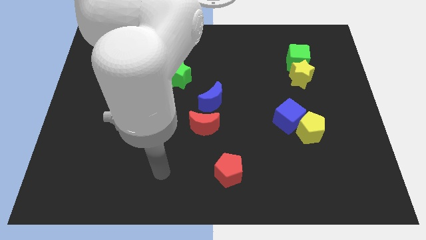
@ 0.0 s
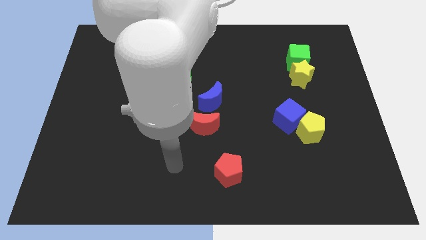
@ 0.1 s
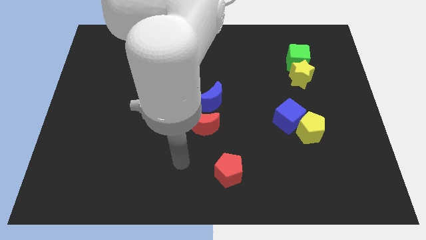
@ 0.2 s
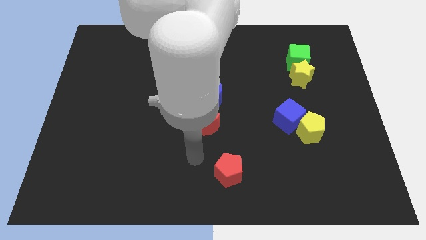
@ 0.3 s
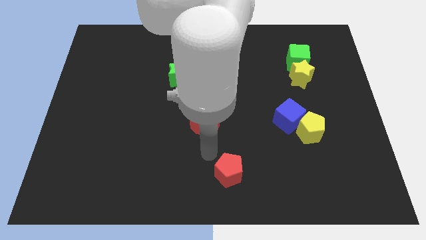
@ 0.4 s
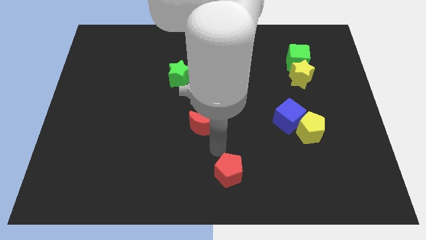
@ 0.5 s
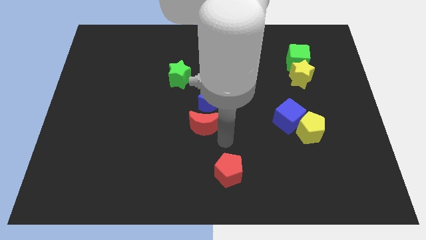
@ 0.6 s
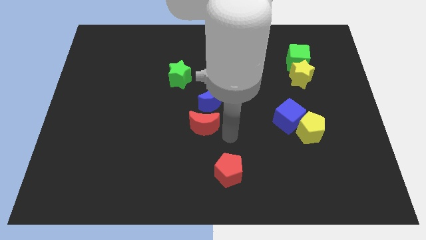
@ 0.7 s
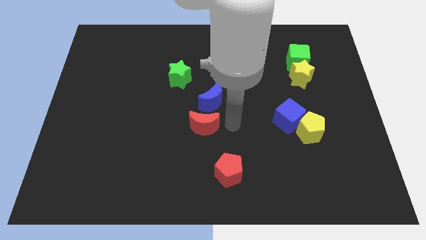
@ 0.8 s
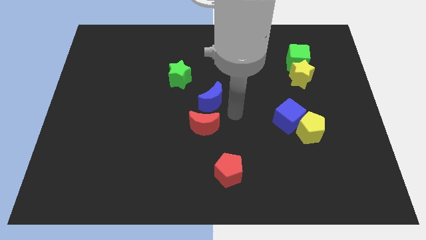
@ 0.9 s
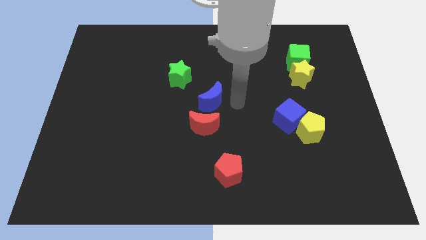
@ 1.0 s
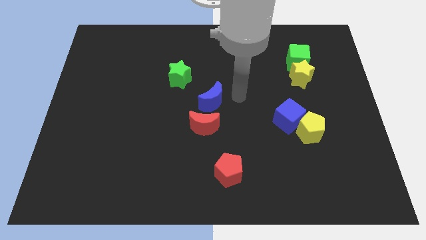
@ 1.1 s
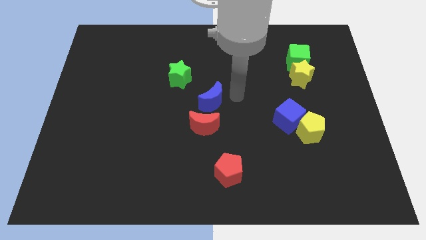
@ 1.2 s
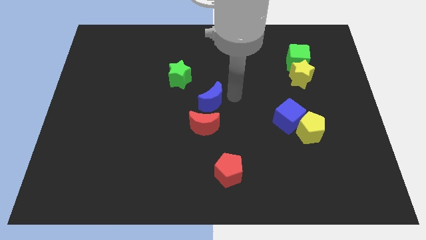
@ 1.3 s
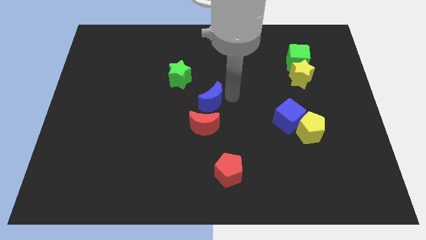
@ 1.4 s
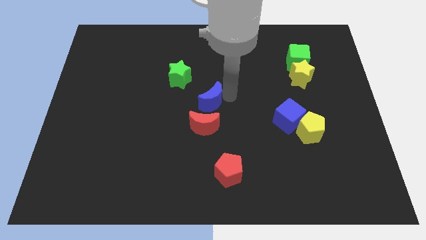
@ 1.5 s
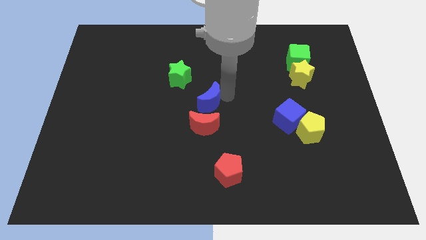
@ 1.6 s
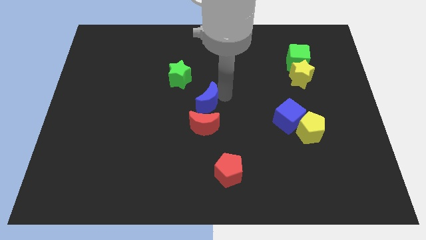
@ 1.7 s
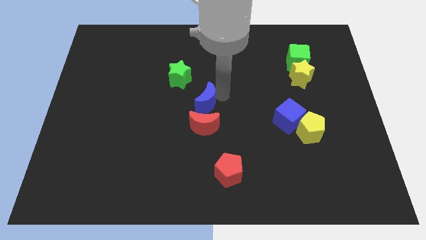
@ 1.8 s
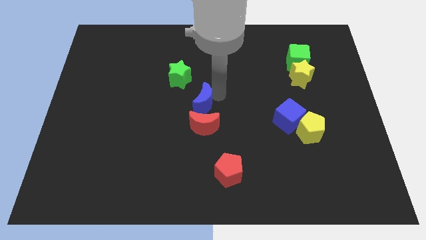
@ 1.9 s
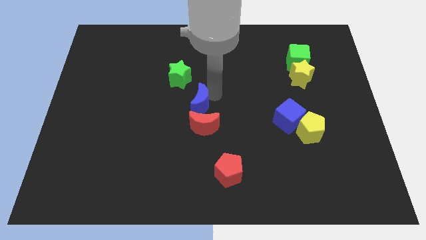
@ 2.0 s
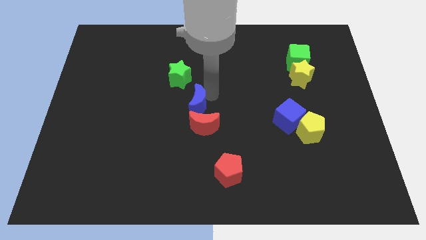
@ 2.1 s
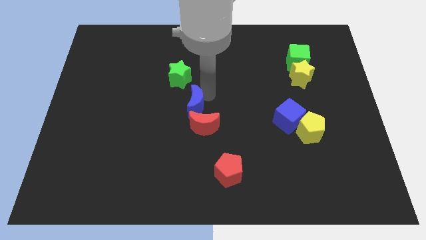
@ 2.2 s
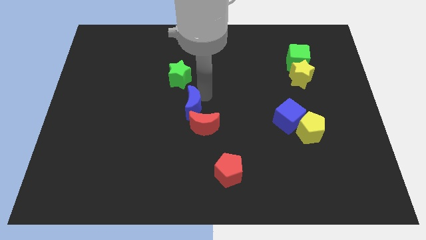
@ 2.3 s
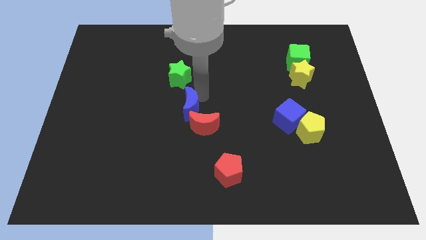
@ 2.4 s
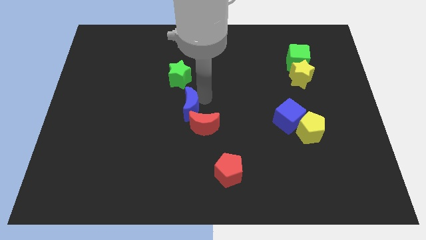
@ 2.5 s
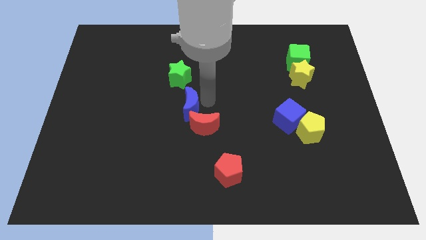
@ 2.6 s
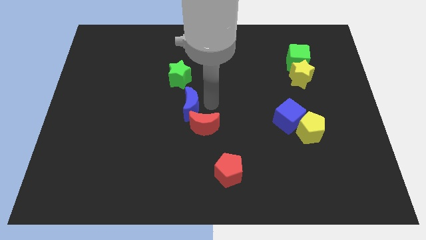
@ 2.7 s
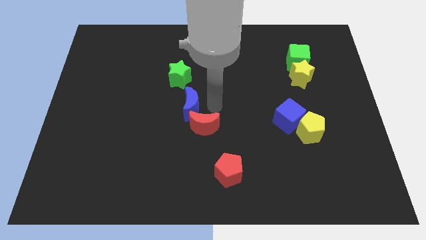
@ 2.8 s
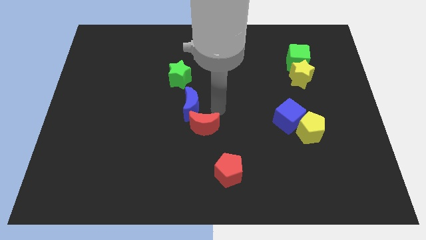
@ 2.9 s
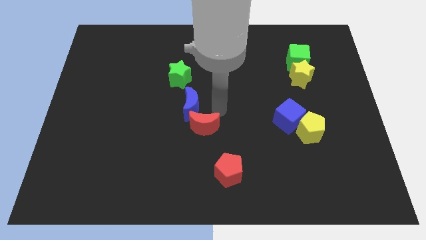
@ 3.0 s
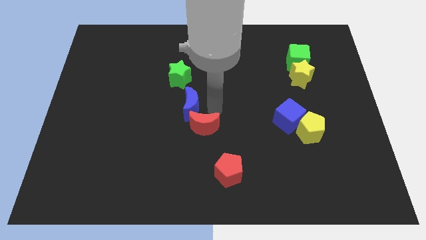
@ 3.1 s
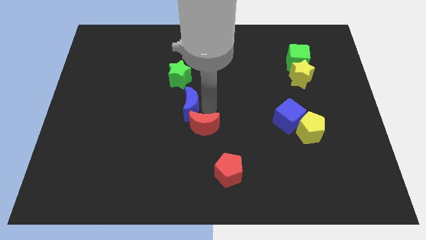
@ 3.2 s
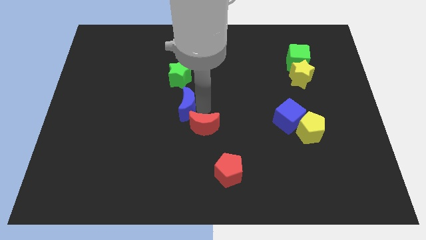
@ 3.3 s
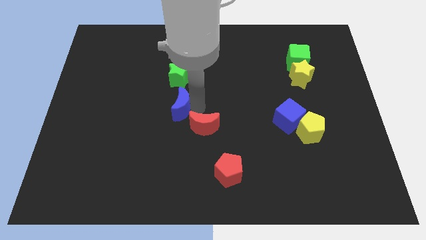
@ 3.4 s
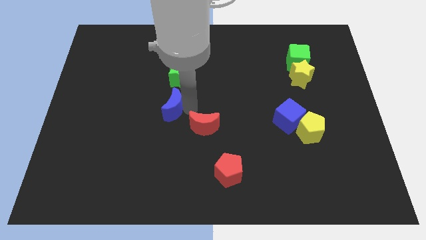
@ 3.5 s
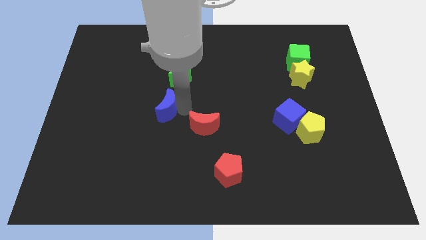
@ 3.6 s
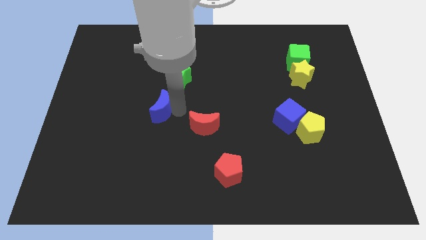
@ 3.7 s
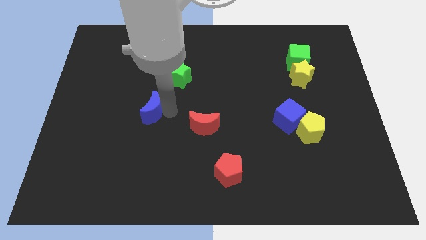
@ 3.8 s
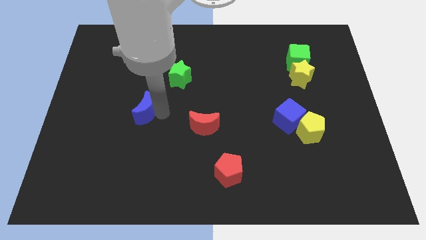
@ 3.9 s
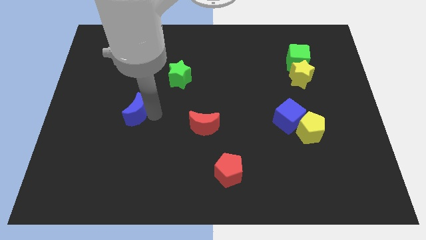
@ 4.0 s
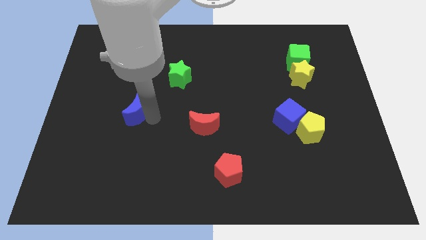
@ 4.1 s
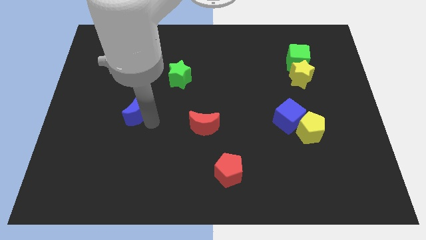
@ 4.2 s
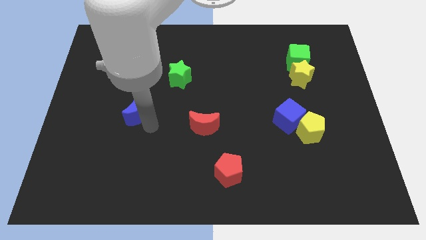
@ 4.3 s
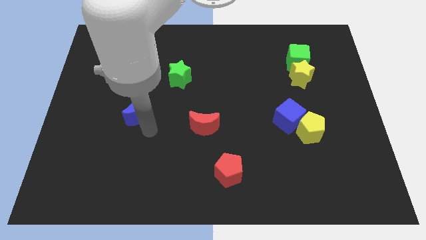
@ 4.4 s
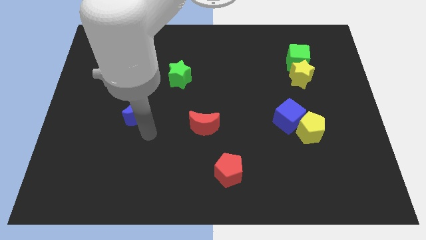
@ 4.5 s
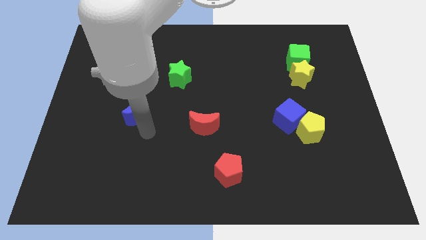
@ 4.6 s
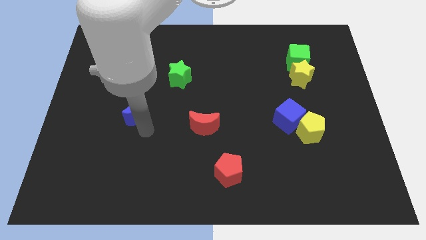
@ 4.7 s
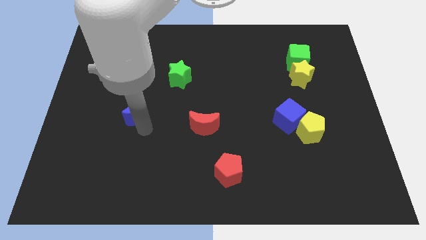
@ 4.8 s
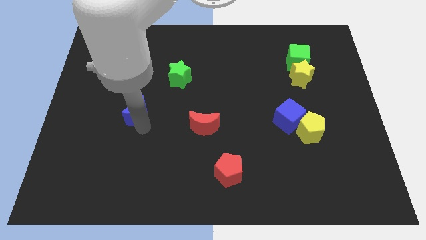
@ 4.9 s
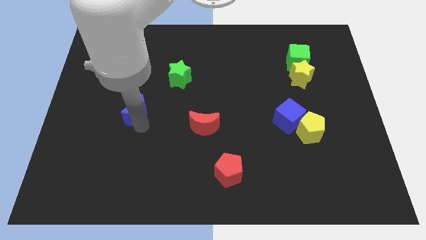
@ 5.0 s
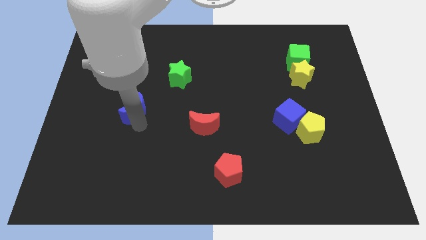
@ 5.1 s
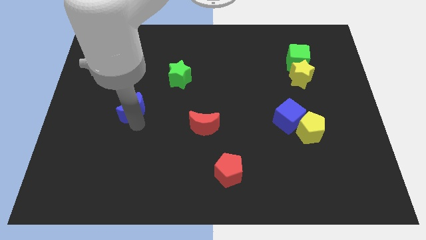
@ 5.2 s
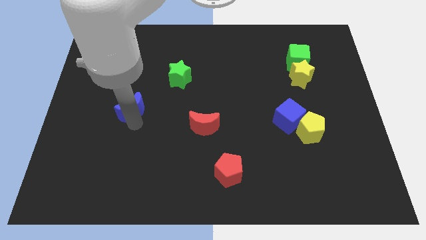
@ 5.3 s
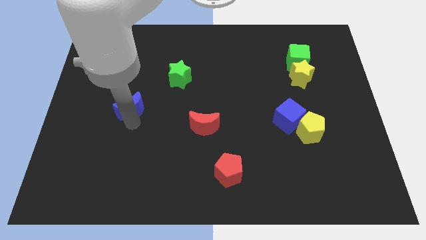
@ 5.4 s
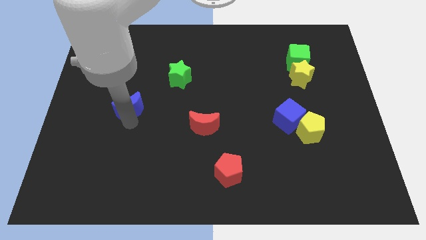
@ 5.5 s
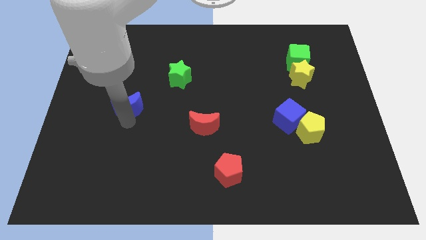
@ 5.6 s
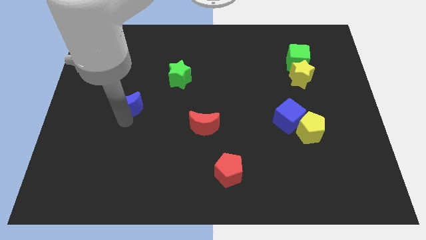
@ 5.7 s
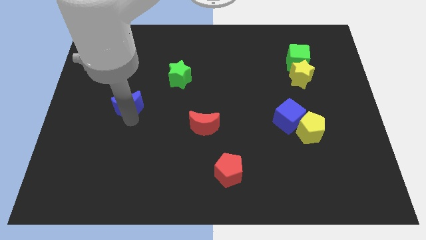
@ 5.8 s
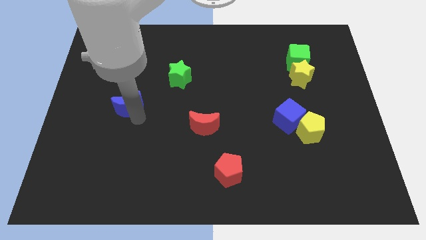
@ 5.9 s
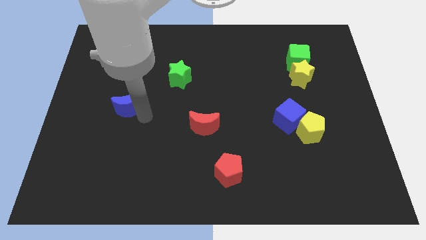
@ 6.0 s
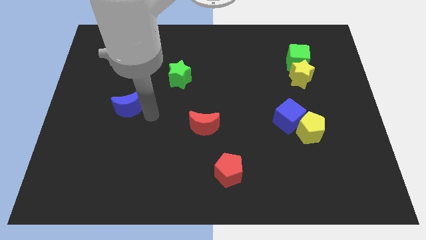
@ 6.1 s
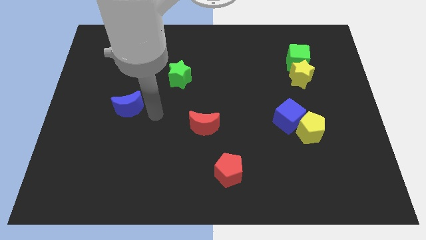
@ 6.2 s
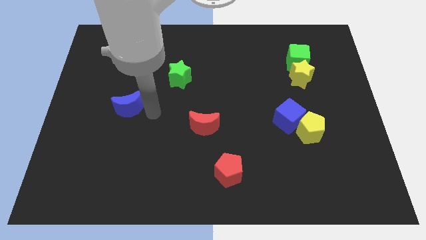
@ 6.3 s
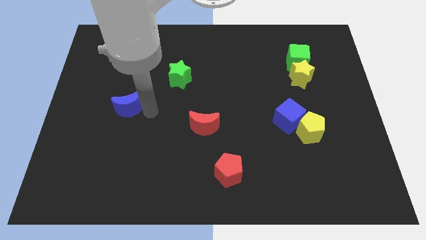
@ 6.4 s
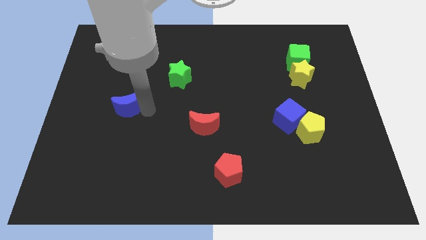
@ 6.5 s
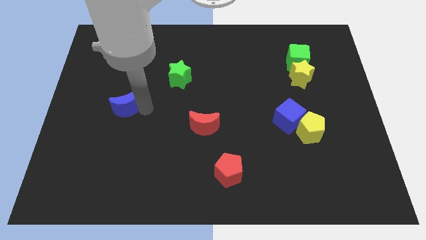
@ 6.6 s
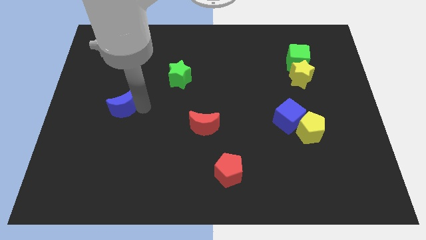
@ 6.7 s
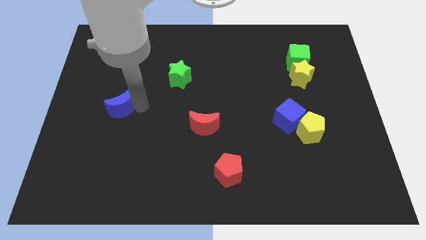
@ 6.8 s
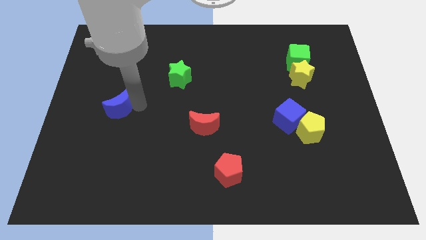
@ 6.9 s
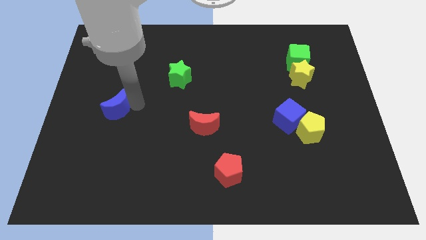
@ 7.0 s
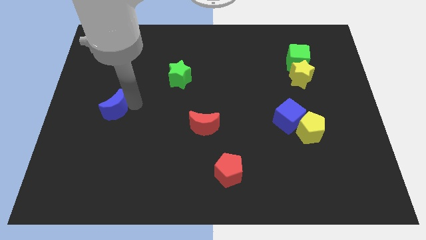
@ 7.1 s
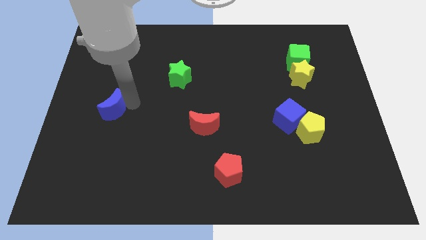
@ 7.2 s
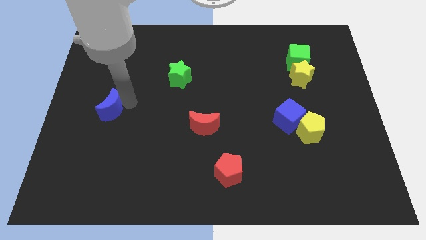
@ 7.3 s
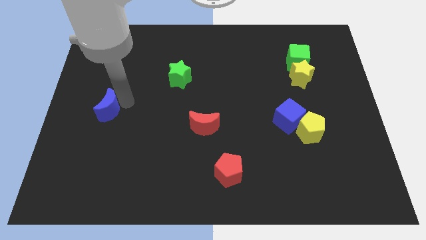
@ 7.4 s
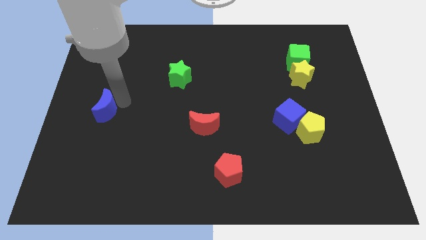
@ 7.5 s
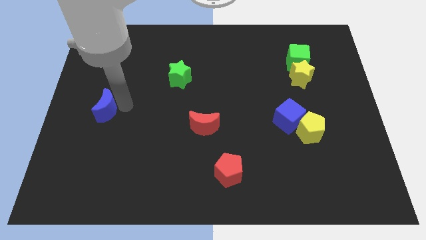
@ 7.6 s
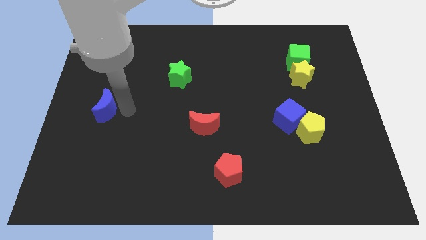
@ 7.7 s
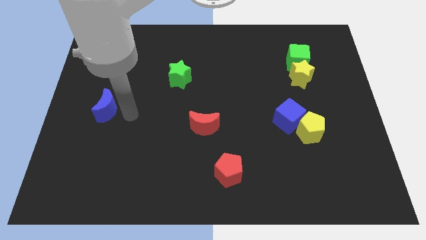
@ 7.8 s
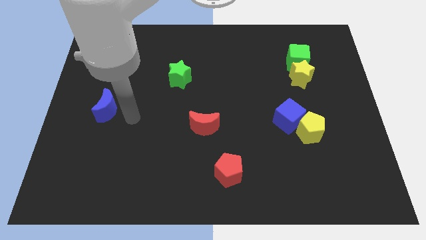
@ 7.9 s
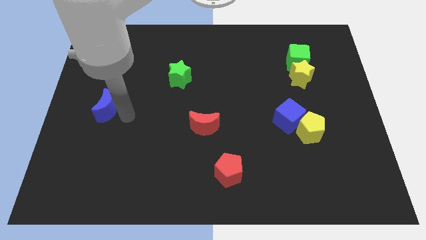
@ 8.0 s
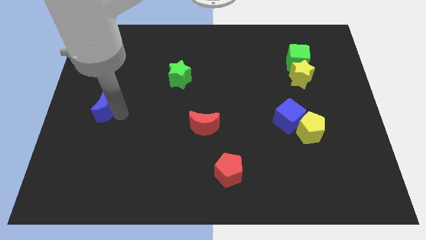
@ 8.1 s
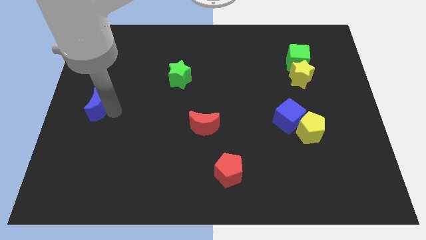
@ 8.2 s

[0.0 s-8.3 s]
slide the blue moon to the left side of the board
